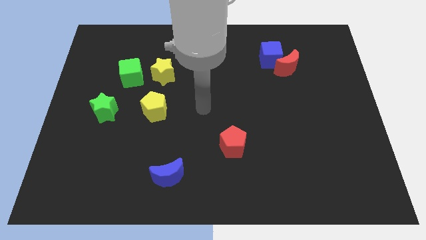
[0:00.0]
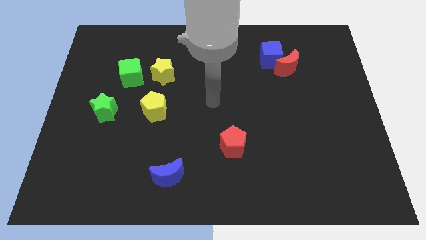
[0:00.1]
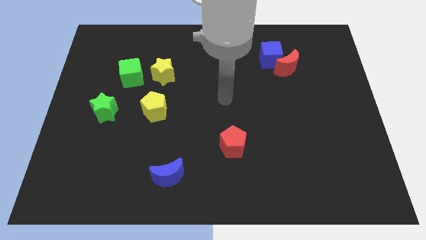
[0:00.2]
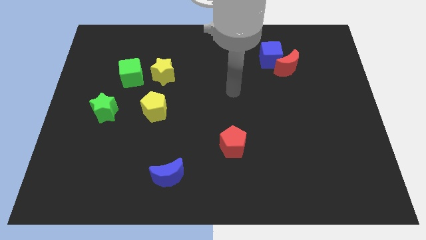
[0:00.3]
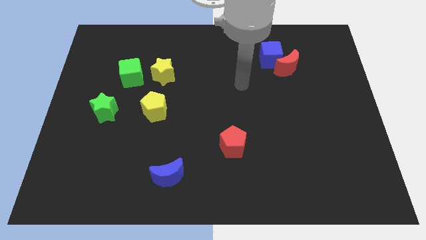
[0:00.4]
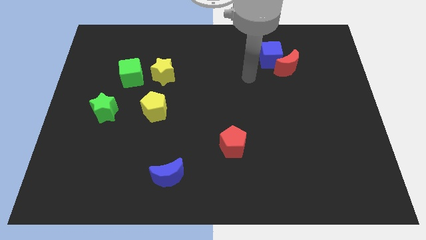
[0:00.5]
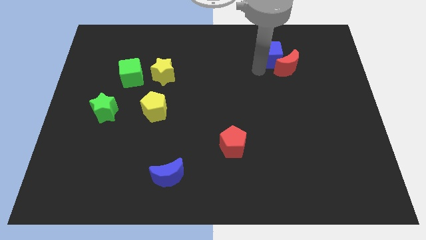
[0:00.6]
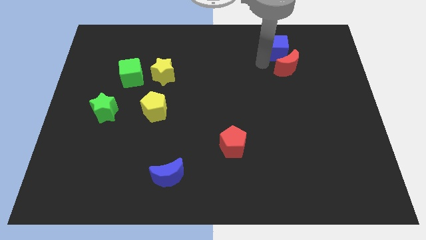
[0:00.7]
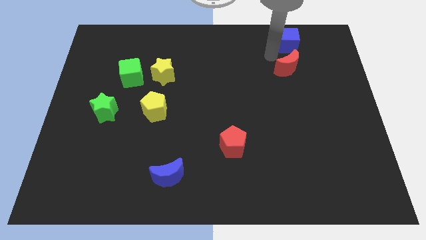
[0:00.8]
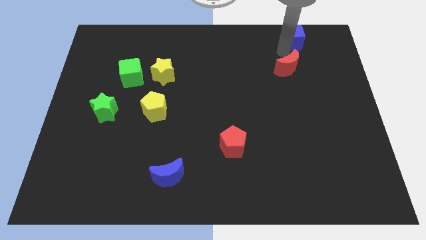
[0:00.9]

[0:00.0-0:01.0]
separate the red moon from the blue cube

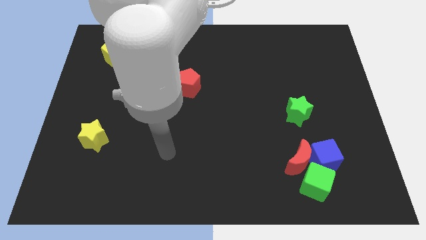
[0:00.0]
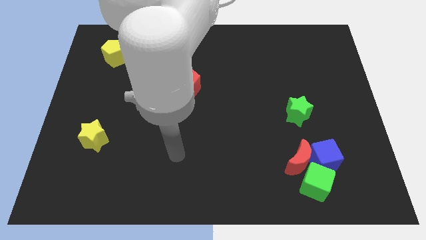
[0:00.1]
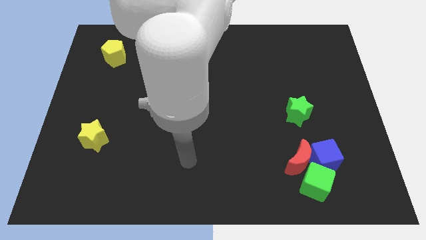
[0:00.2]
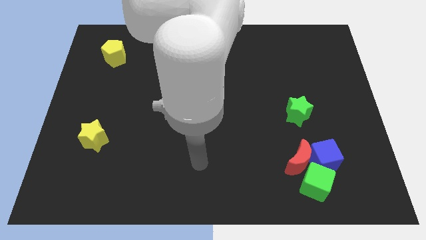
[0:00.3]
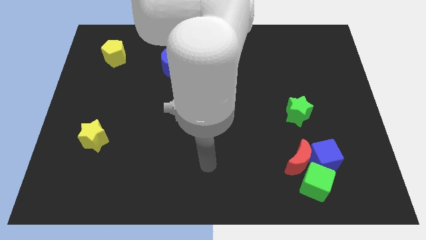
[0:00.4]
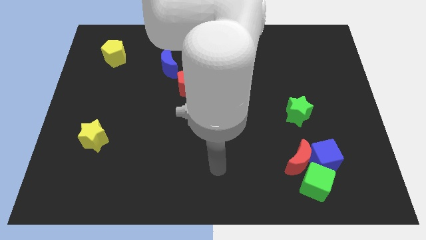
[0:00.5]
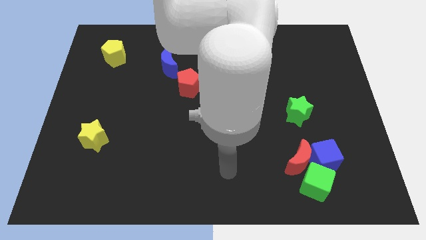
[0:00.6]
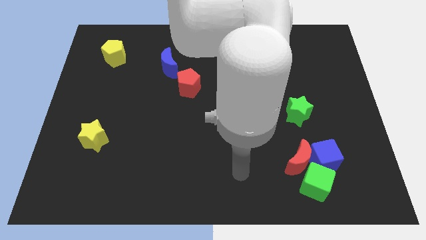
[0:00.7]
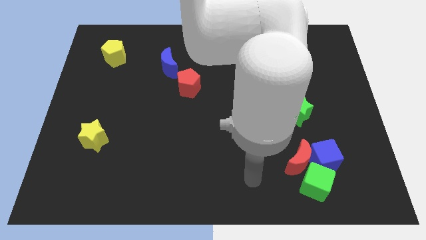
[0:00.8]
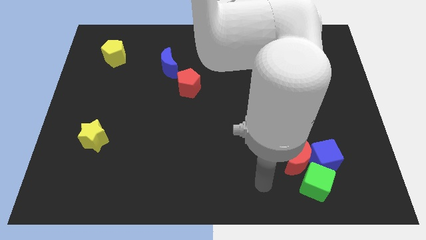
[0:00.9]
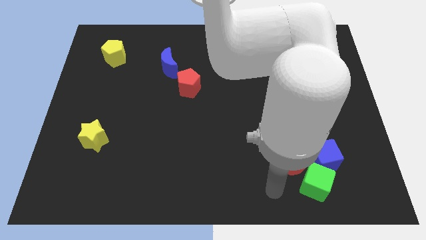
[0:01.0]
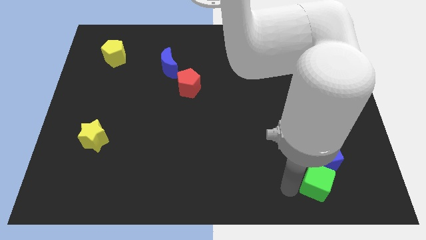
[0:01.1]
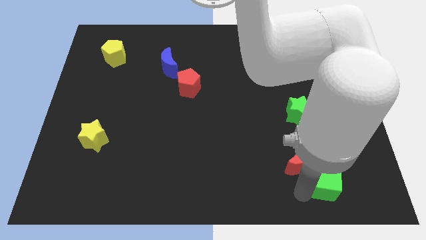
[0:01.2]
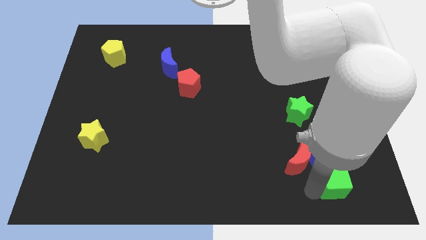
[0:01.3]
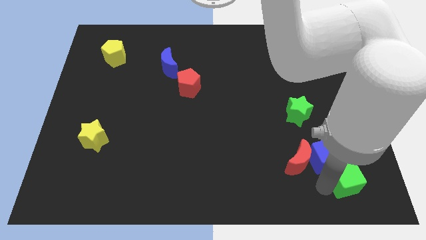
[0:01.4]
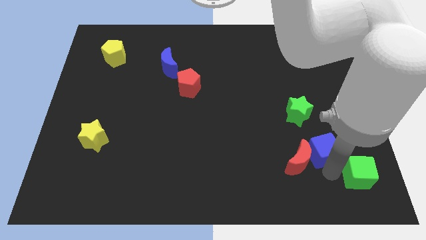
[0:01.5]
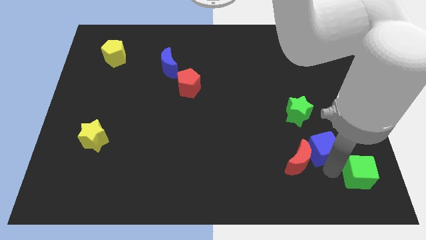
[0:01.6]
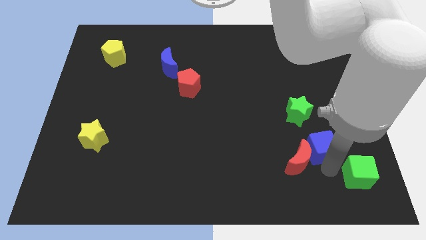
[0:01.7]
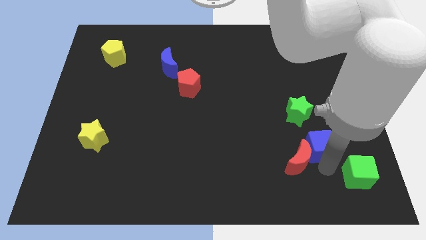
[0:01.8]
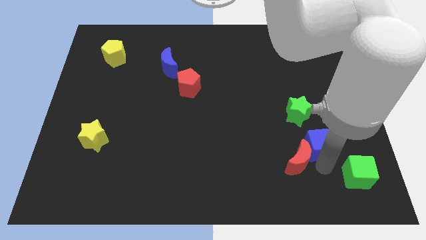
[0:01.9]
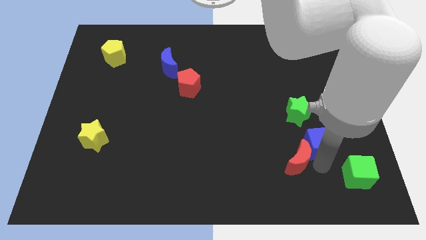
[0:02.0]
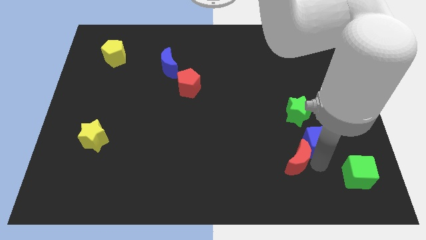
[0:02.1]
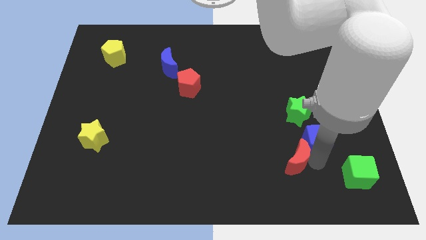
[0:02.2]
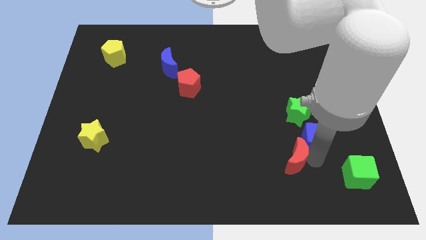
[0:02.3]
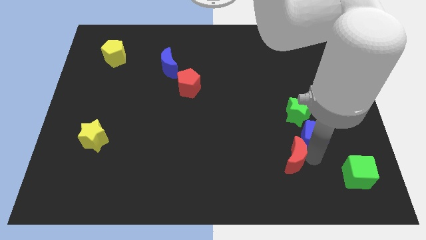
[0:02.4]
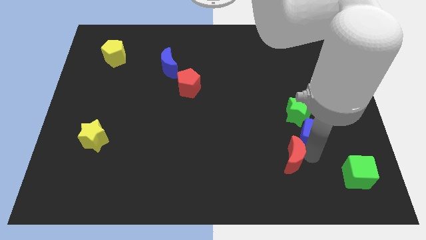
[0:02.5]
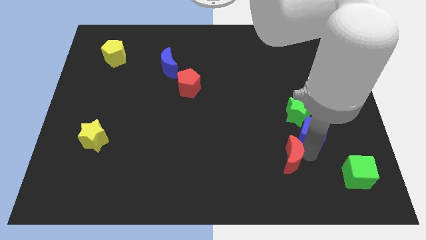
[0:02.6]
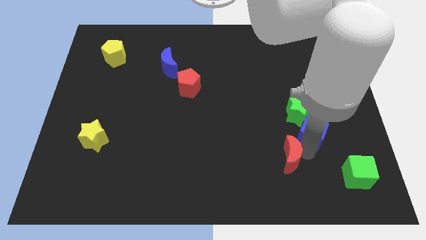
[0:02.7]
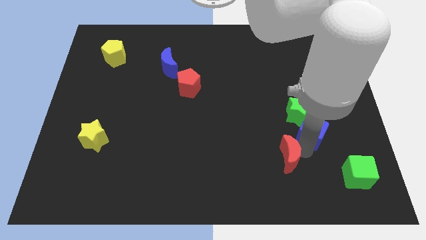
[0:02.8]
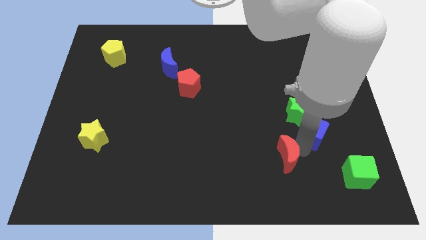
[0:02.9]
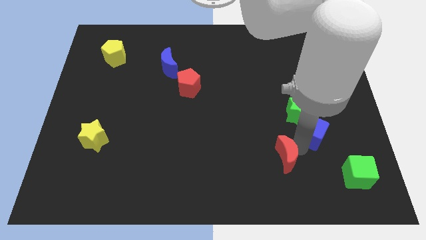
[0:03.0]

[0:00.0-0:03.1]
pull the red moon apart from the blue cube and green cube

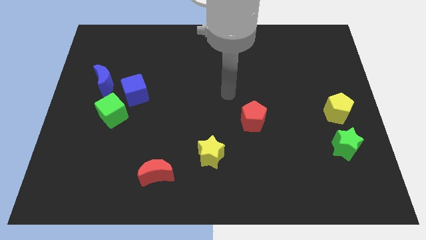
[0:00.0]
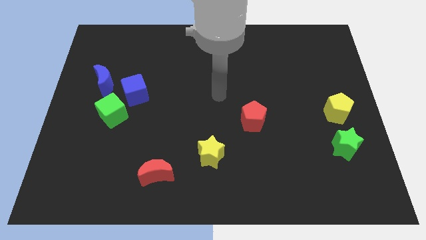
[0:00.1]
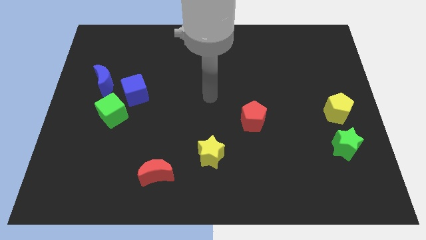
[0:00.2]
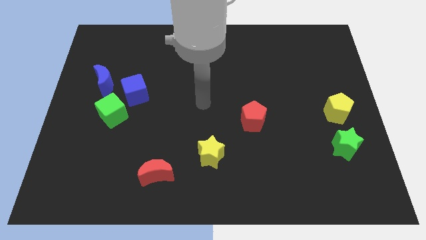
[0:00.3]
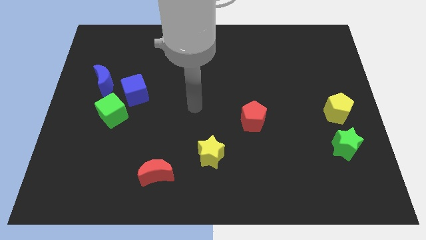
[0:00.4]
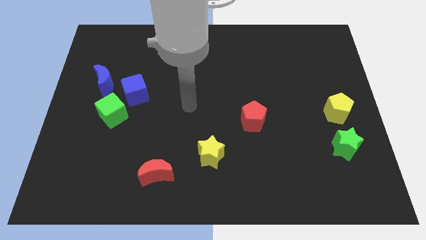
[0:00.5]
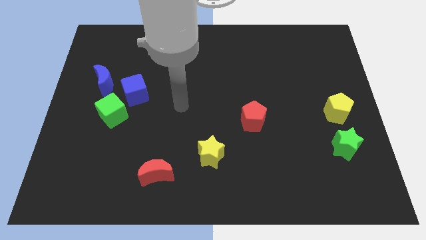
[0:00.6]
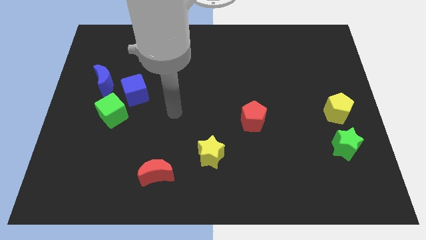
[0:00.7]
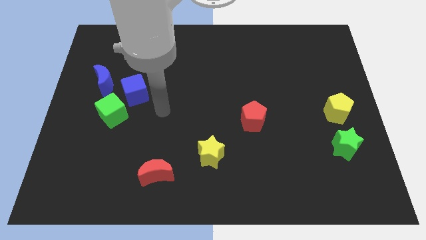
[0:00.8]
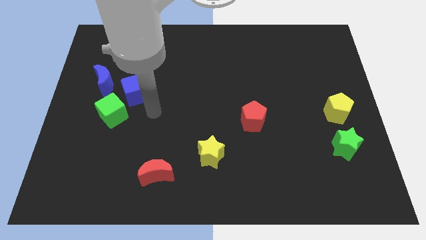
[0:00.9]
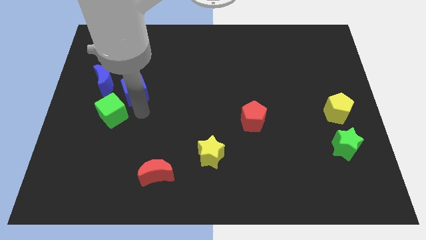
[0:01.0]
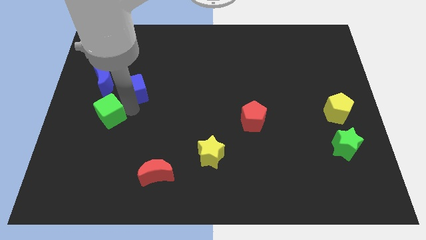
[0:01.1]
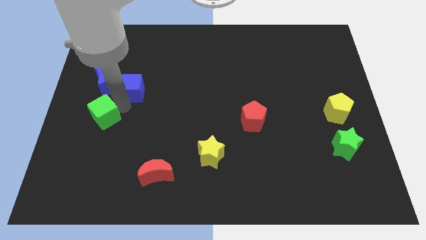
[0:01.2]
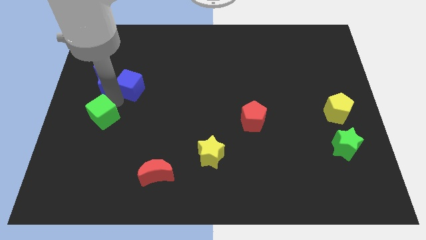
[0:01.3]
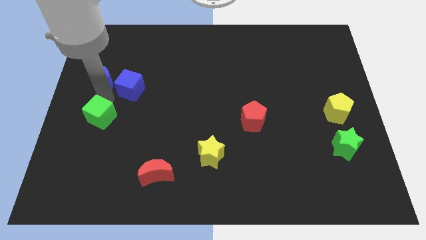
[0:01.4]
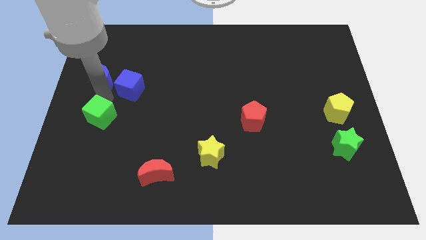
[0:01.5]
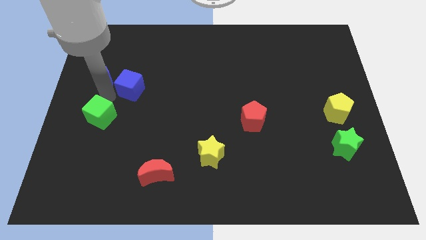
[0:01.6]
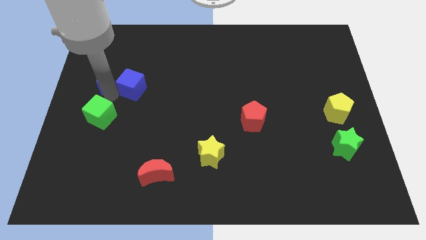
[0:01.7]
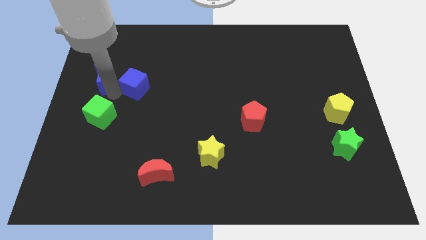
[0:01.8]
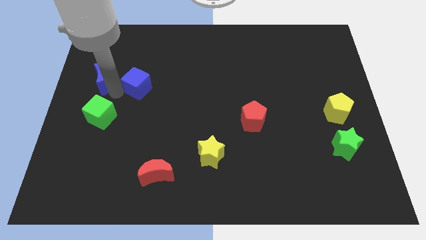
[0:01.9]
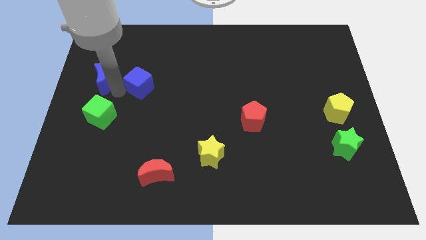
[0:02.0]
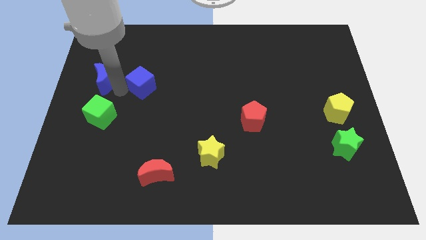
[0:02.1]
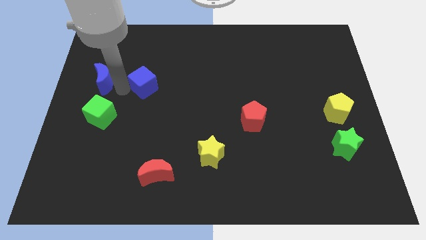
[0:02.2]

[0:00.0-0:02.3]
move the blue cube away from the green cube and blue moon

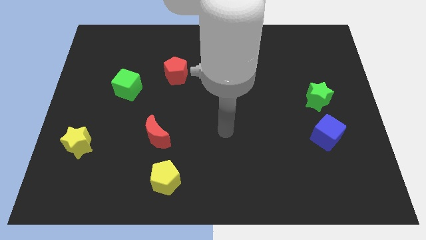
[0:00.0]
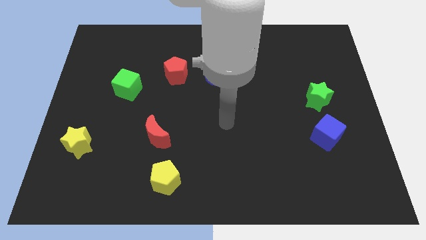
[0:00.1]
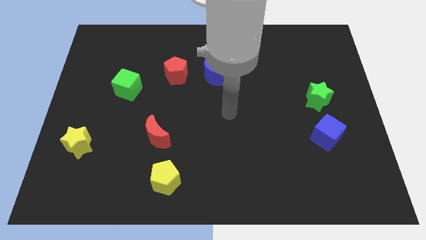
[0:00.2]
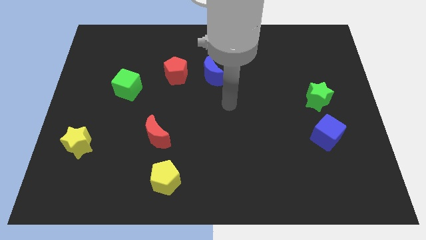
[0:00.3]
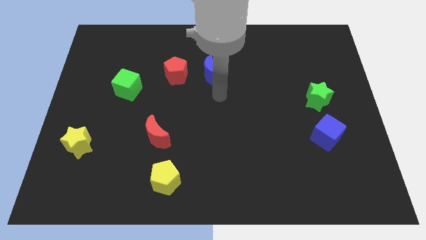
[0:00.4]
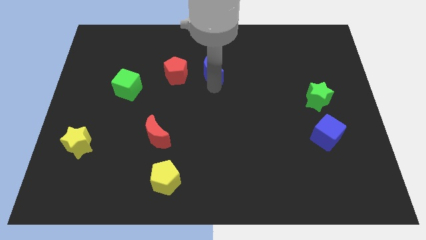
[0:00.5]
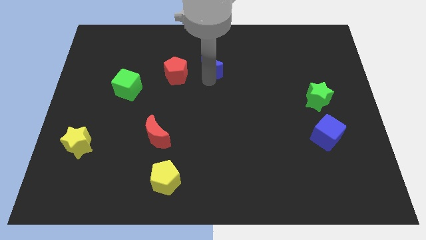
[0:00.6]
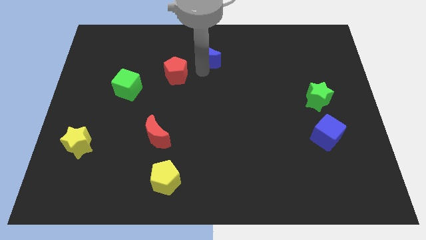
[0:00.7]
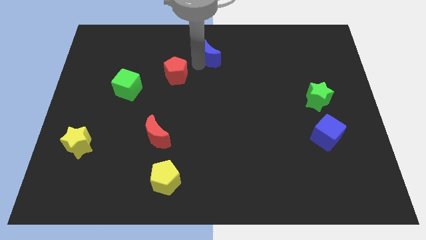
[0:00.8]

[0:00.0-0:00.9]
pull the red pentagon apart from the blue moon

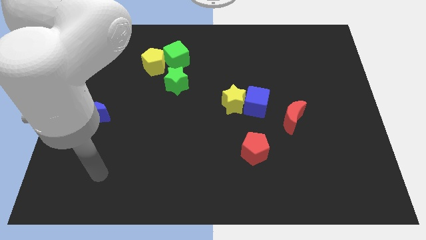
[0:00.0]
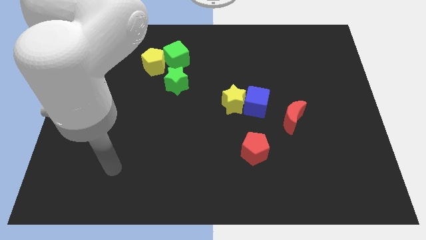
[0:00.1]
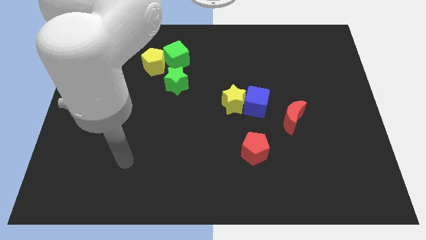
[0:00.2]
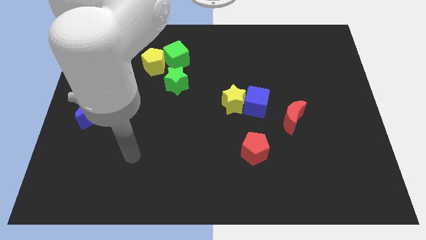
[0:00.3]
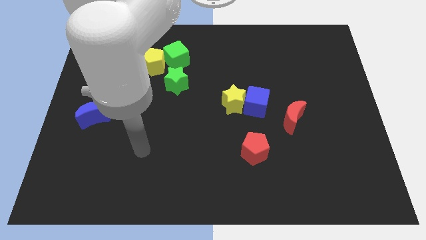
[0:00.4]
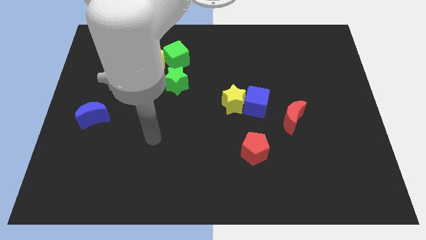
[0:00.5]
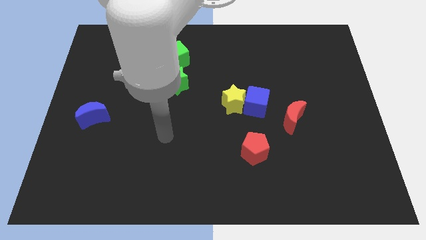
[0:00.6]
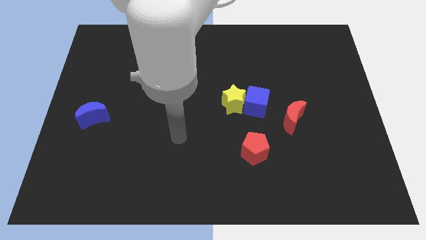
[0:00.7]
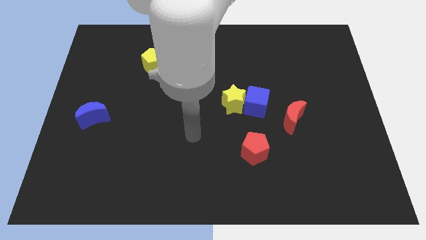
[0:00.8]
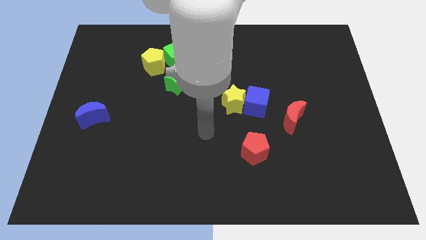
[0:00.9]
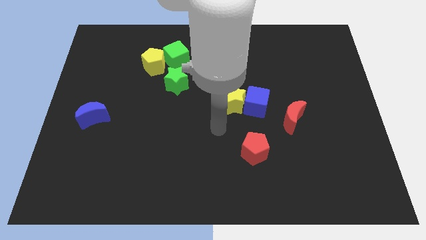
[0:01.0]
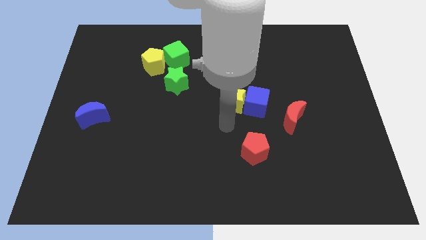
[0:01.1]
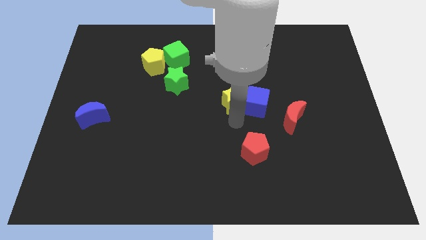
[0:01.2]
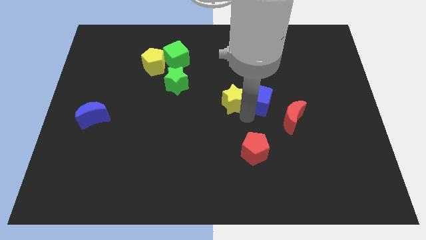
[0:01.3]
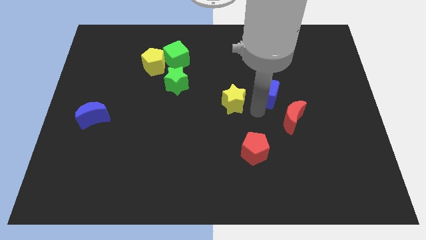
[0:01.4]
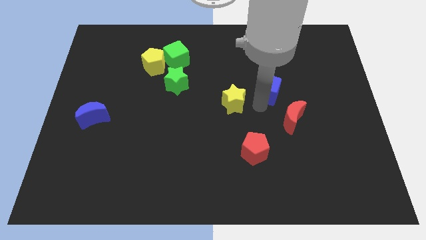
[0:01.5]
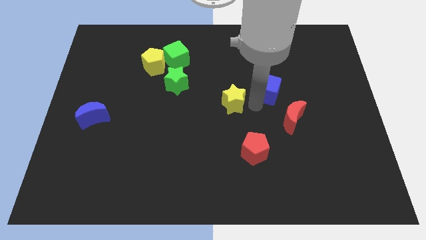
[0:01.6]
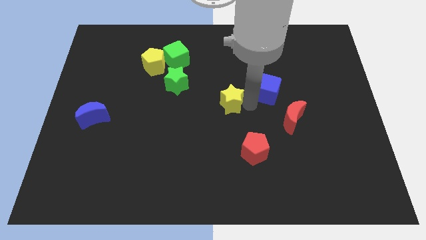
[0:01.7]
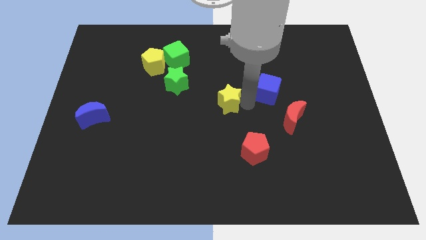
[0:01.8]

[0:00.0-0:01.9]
move the yellow star away from the blue cube

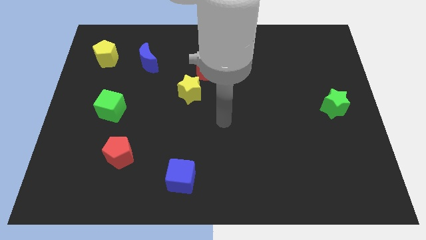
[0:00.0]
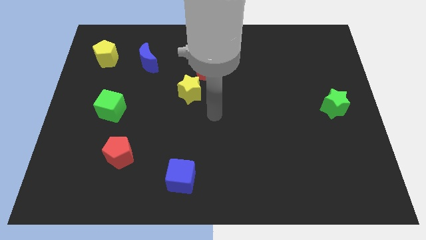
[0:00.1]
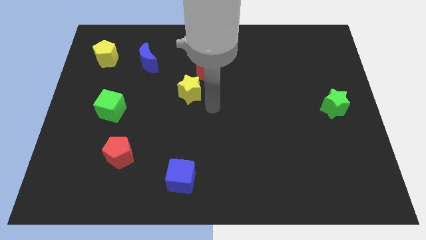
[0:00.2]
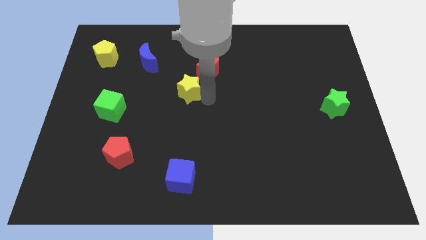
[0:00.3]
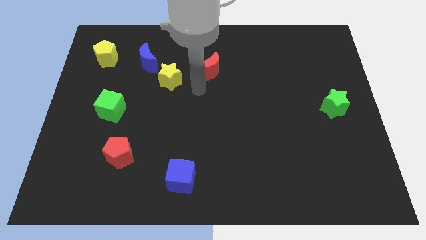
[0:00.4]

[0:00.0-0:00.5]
move the red moon away from the yellow star
